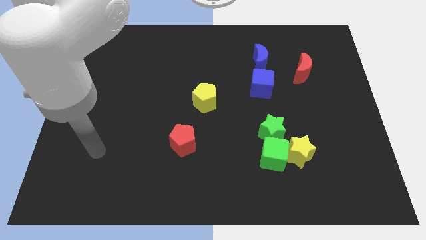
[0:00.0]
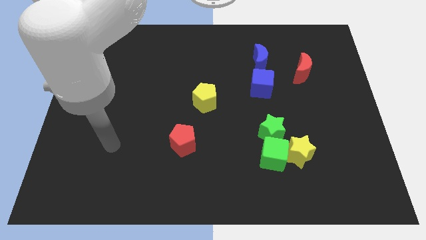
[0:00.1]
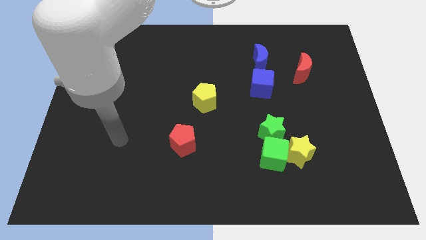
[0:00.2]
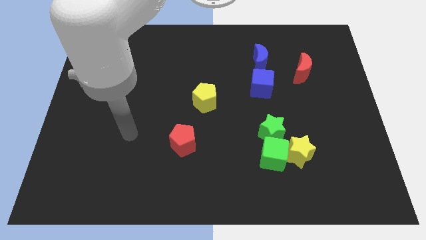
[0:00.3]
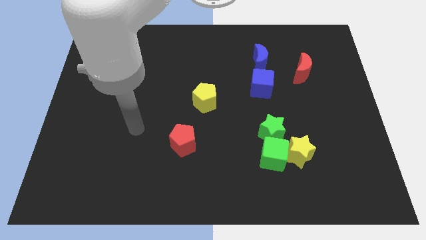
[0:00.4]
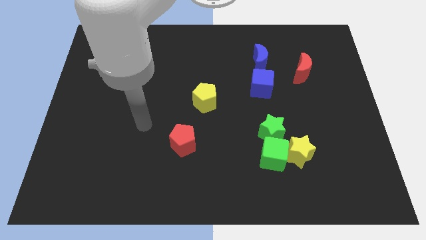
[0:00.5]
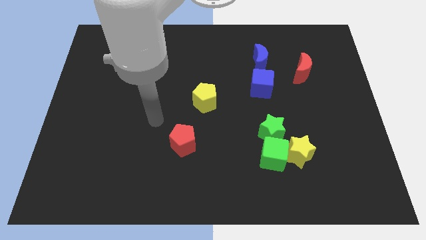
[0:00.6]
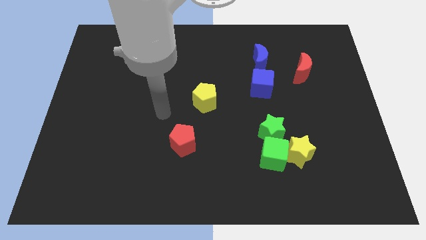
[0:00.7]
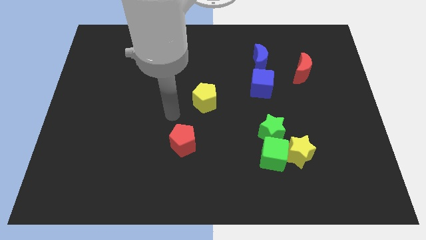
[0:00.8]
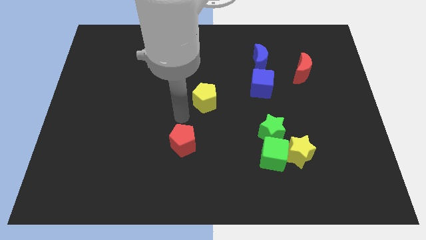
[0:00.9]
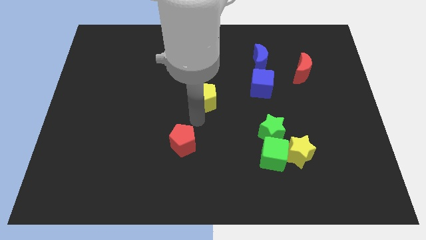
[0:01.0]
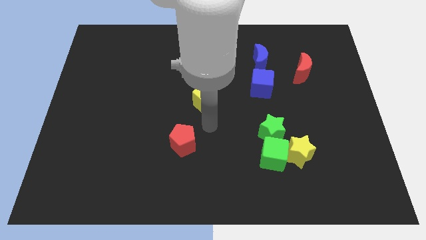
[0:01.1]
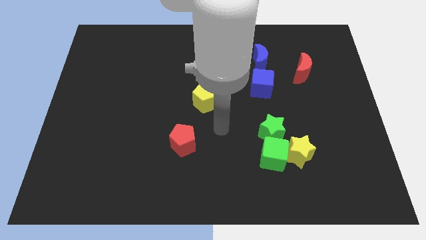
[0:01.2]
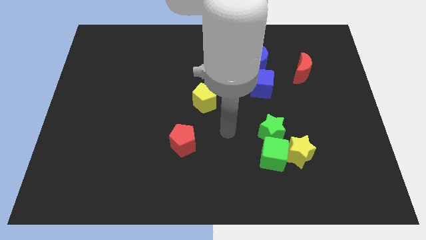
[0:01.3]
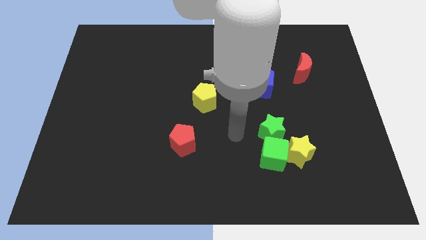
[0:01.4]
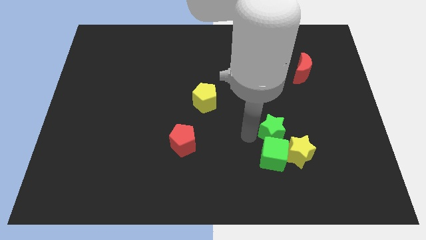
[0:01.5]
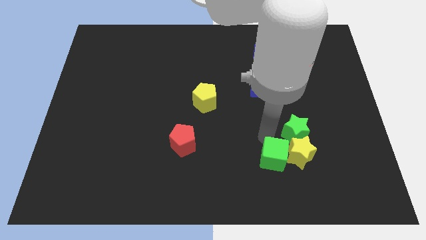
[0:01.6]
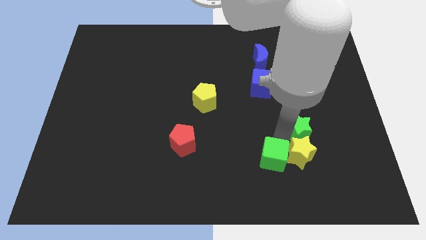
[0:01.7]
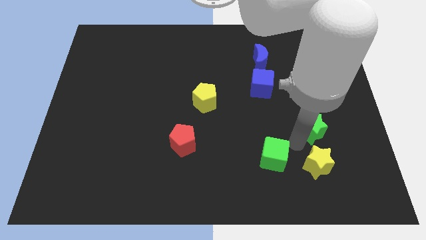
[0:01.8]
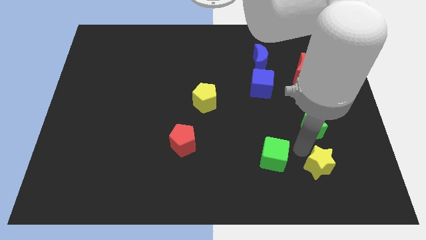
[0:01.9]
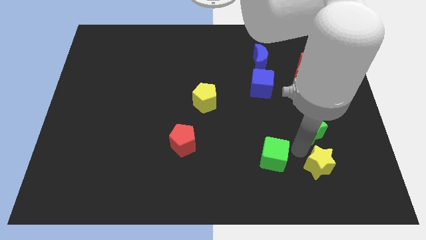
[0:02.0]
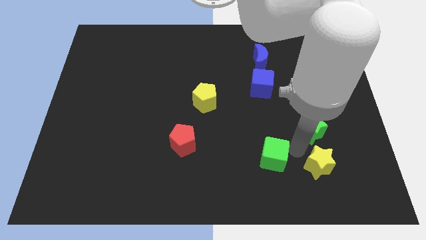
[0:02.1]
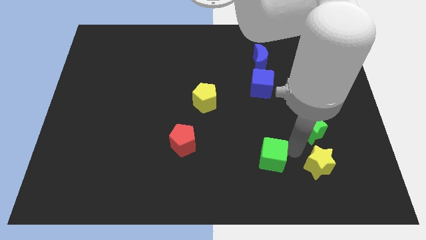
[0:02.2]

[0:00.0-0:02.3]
separate the green cube from the yellow star and green star

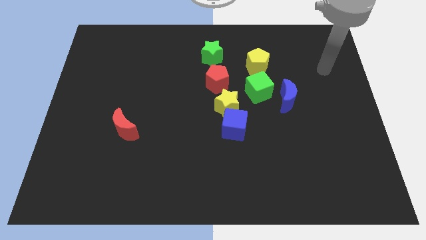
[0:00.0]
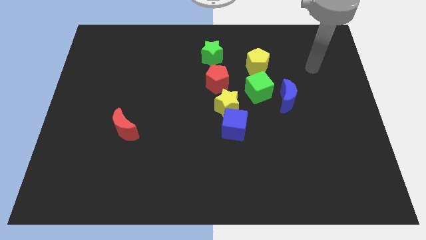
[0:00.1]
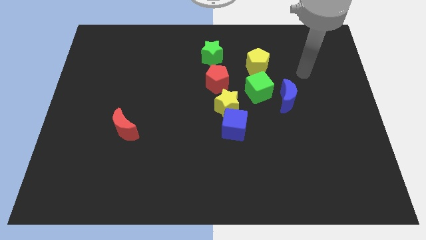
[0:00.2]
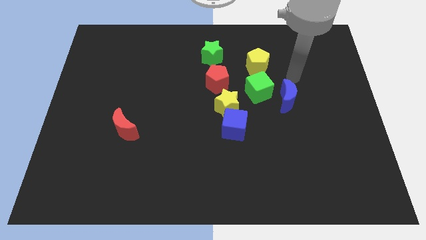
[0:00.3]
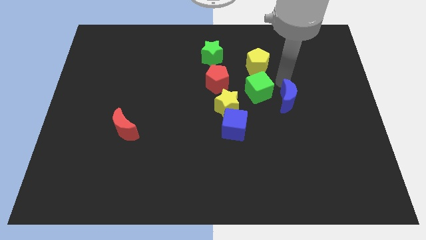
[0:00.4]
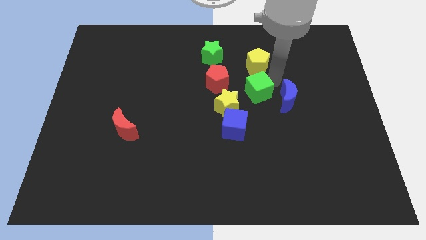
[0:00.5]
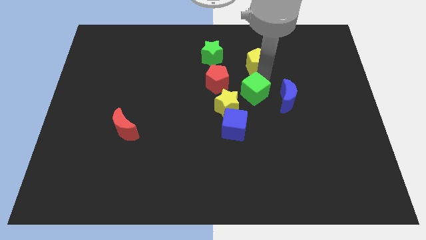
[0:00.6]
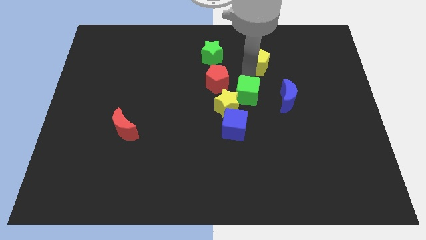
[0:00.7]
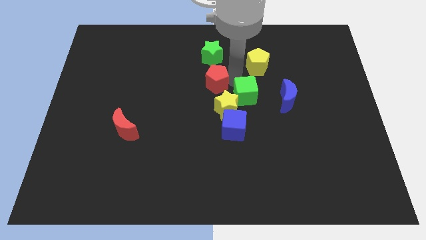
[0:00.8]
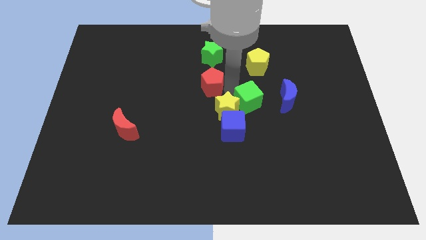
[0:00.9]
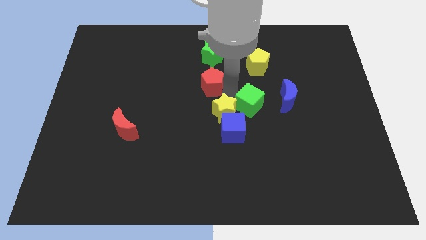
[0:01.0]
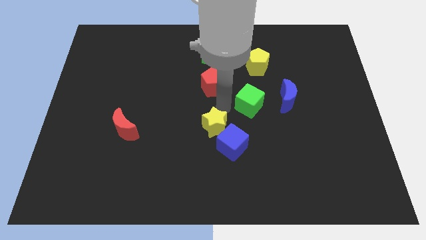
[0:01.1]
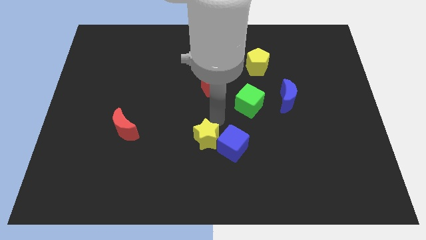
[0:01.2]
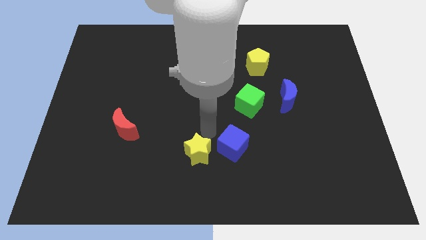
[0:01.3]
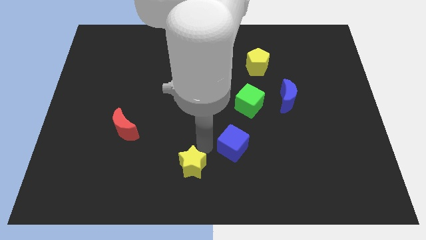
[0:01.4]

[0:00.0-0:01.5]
separate the blue cube from the yellow star

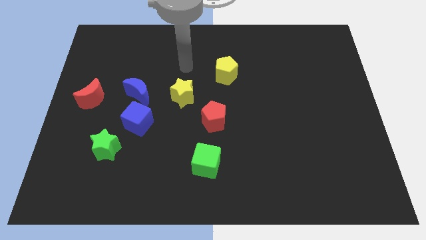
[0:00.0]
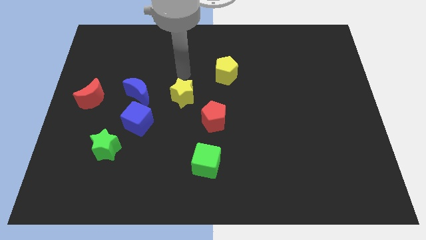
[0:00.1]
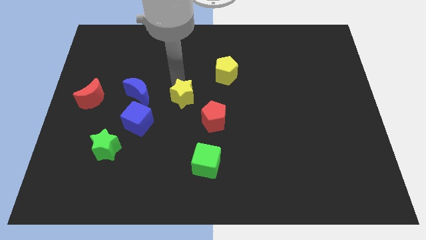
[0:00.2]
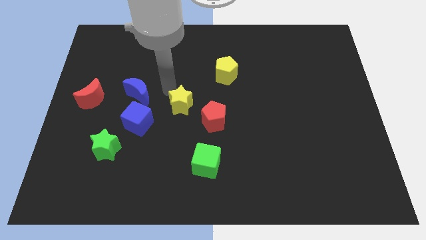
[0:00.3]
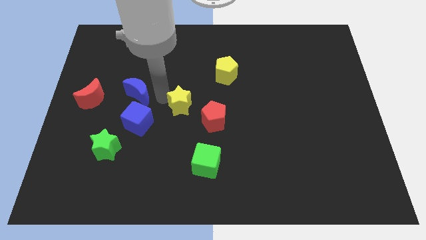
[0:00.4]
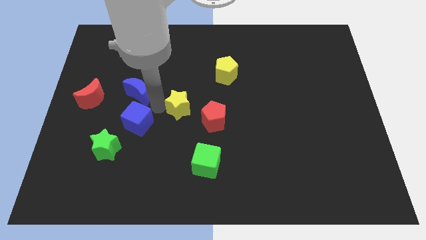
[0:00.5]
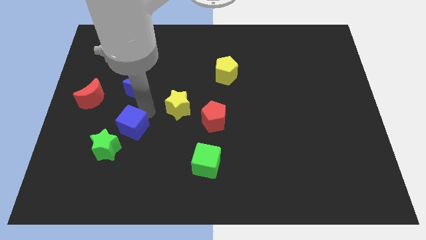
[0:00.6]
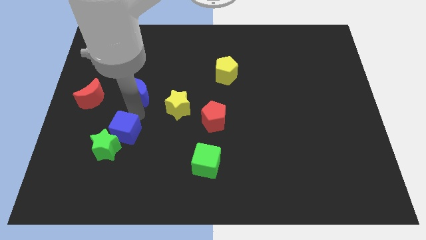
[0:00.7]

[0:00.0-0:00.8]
move the blue moon away from the blue cube

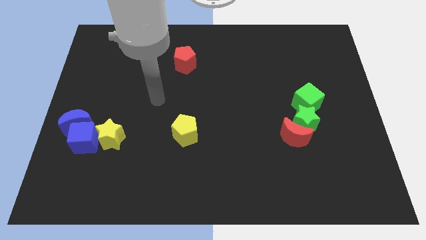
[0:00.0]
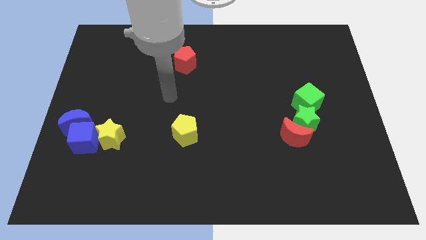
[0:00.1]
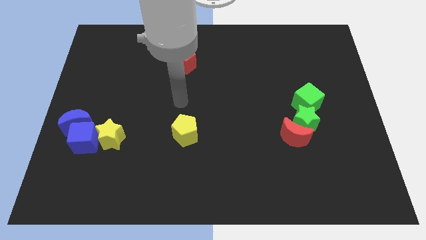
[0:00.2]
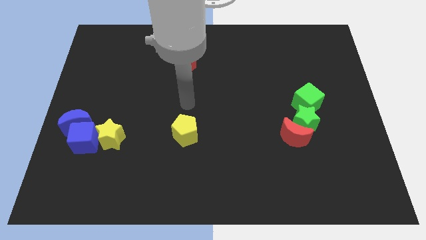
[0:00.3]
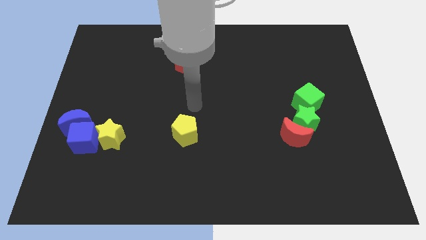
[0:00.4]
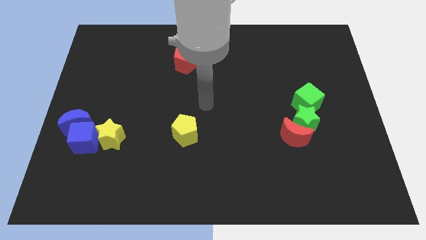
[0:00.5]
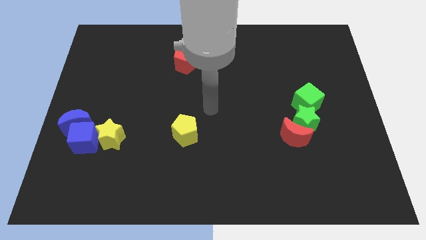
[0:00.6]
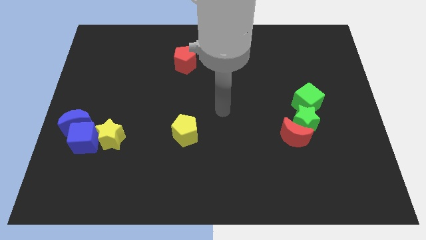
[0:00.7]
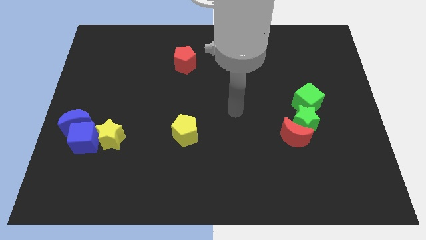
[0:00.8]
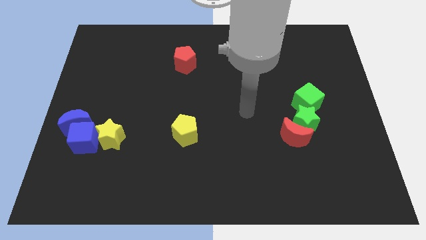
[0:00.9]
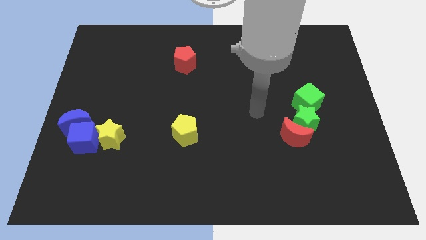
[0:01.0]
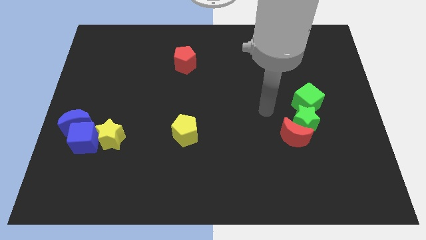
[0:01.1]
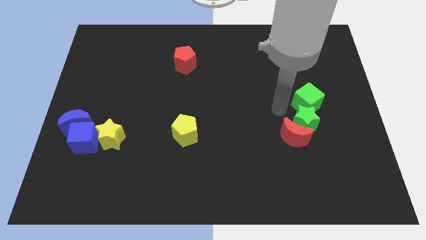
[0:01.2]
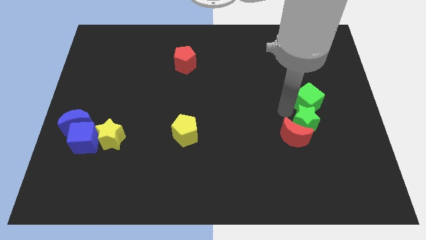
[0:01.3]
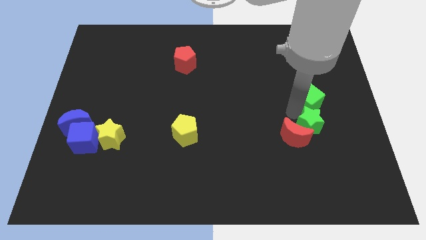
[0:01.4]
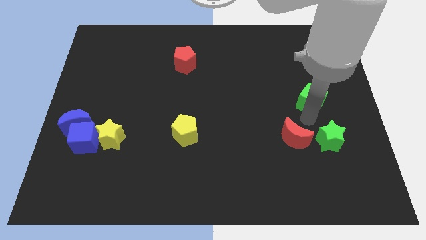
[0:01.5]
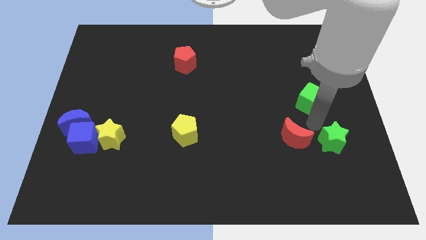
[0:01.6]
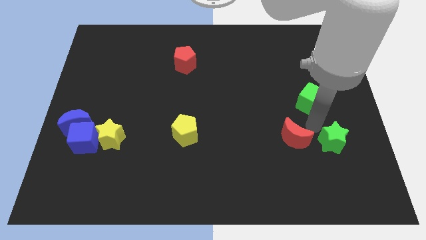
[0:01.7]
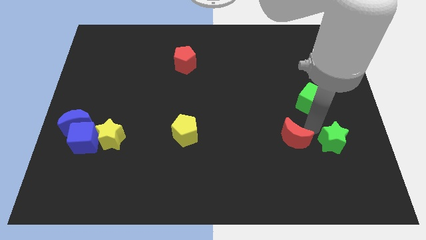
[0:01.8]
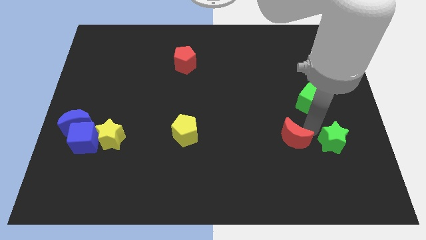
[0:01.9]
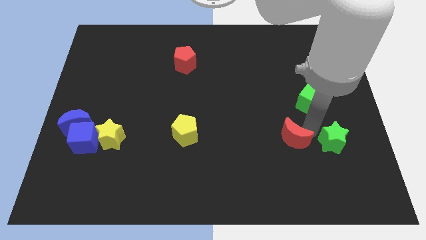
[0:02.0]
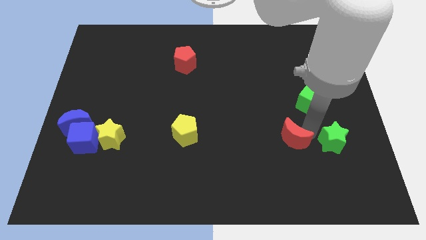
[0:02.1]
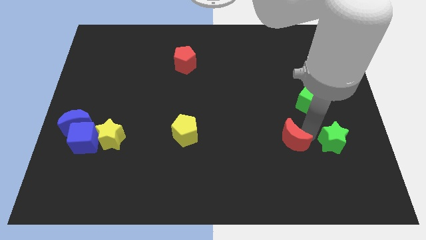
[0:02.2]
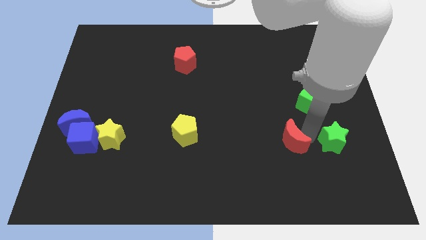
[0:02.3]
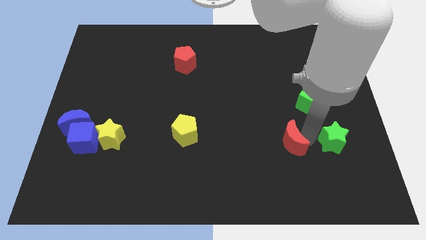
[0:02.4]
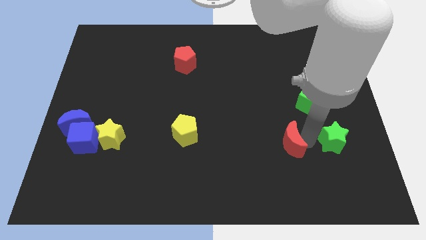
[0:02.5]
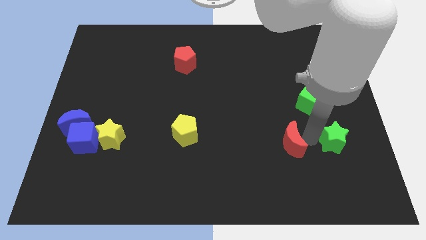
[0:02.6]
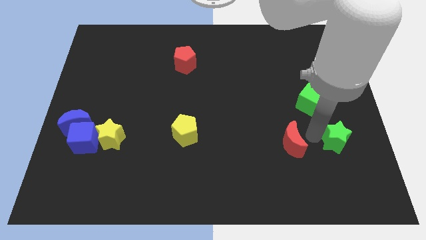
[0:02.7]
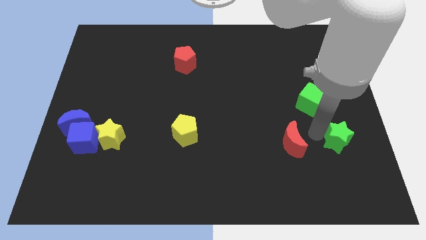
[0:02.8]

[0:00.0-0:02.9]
separate the red moon from the green star

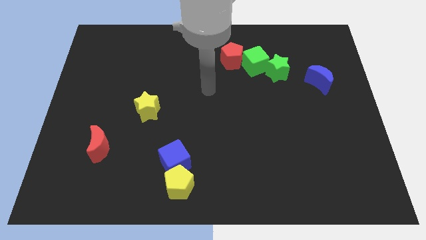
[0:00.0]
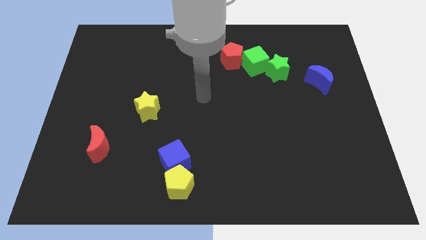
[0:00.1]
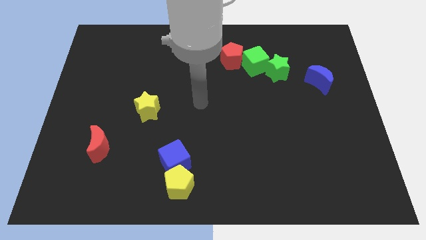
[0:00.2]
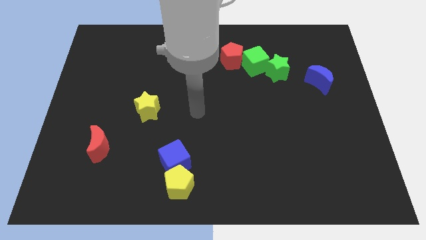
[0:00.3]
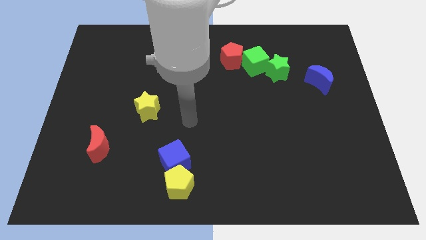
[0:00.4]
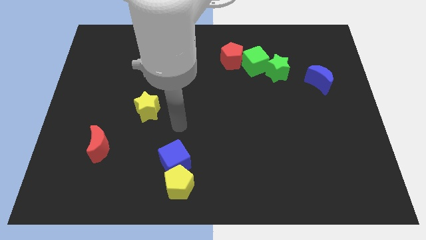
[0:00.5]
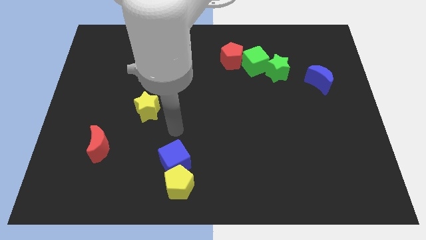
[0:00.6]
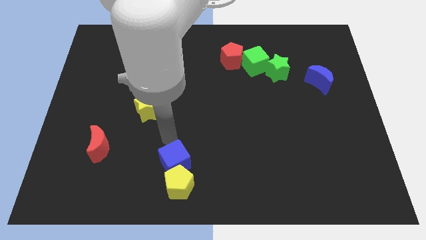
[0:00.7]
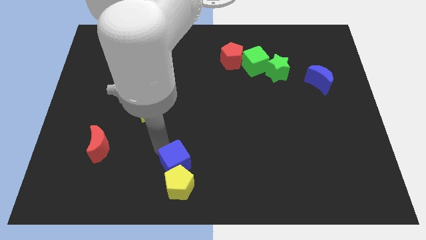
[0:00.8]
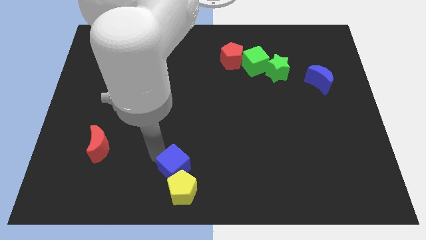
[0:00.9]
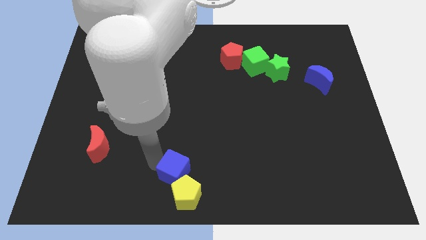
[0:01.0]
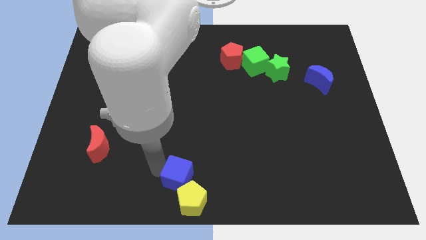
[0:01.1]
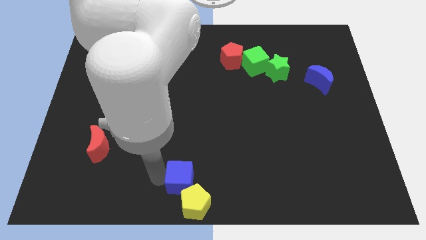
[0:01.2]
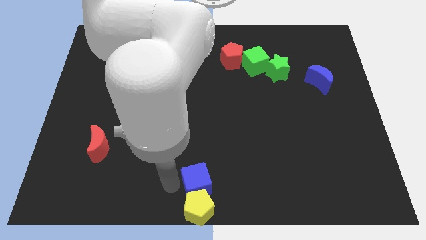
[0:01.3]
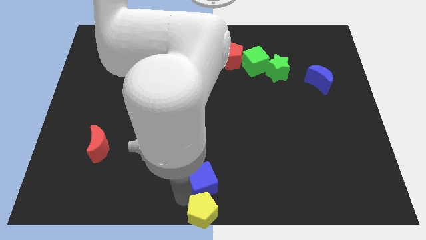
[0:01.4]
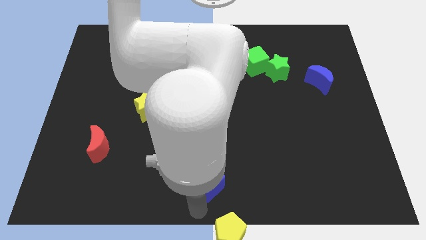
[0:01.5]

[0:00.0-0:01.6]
pull the blue cube apart from the yellow pentagon
